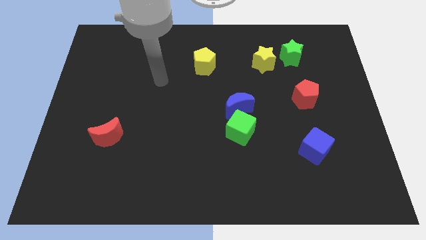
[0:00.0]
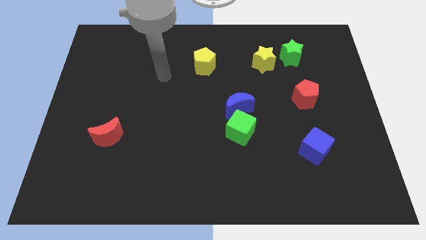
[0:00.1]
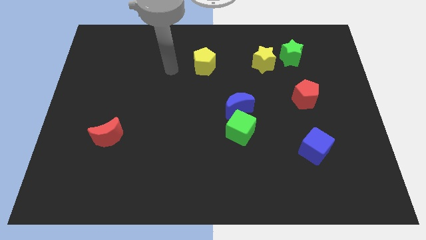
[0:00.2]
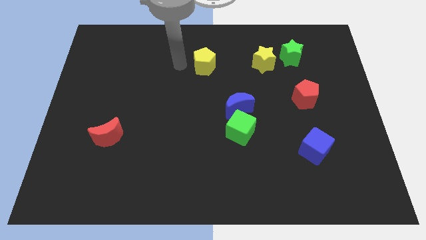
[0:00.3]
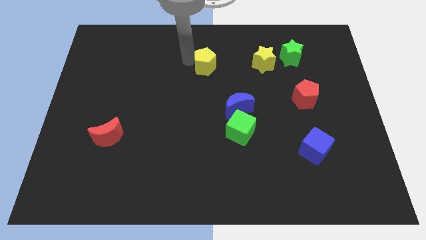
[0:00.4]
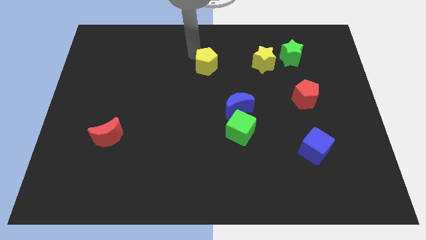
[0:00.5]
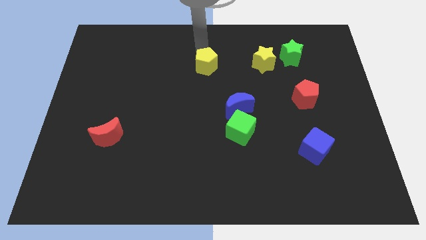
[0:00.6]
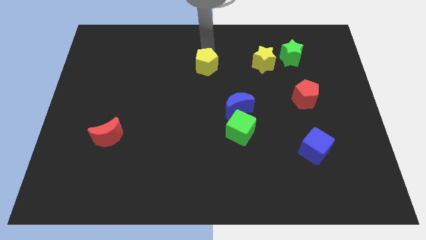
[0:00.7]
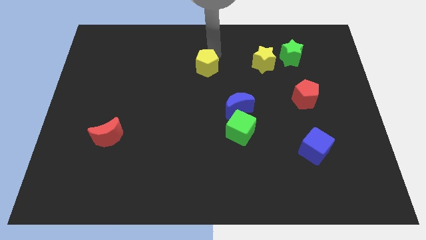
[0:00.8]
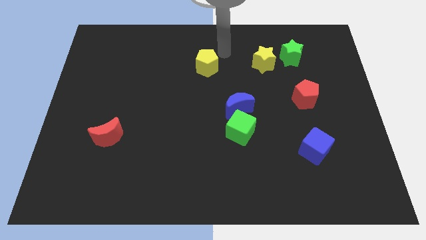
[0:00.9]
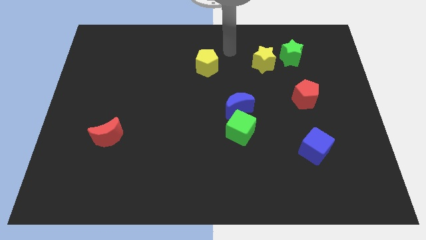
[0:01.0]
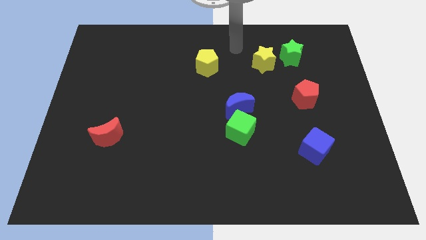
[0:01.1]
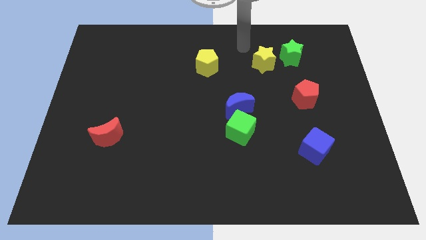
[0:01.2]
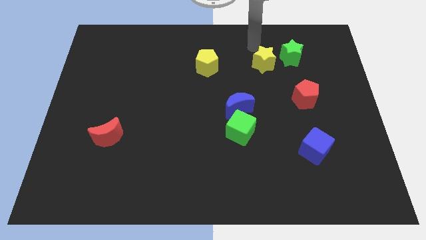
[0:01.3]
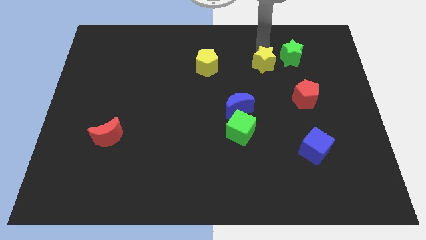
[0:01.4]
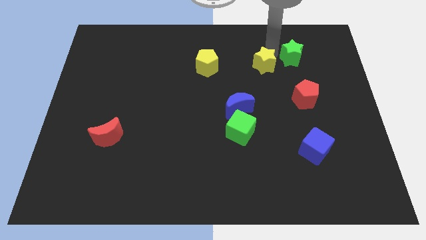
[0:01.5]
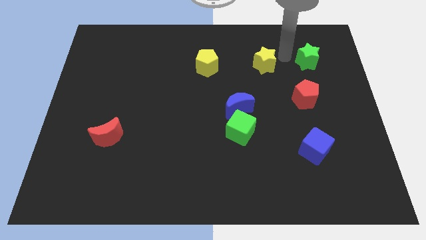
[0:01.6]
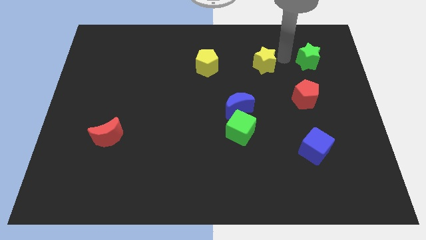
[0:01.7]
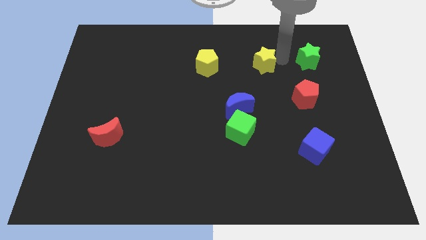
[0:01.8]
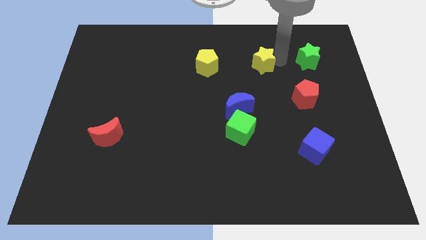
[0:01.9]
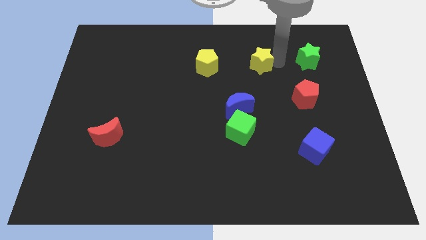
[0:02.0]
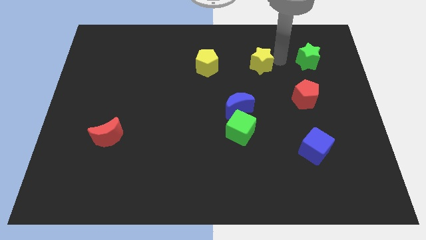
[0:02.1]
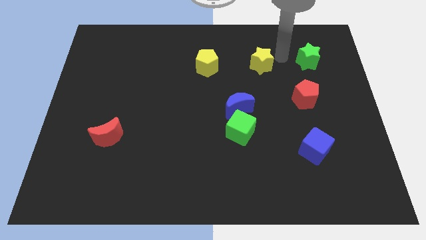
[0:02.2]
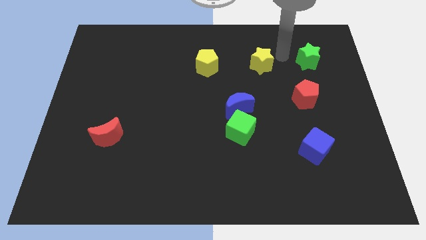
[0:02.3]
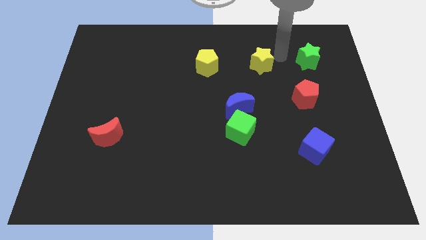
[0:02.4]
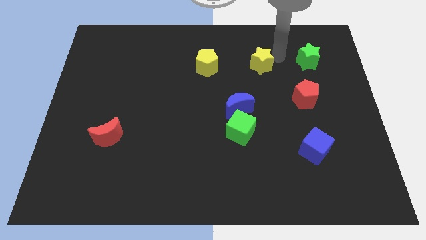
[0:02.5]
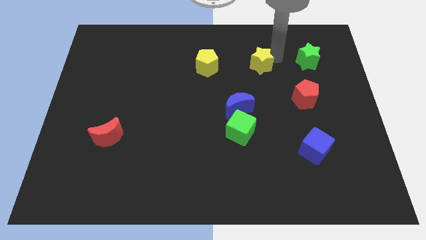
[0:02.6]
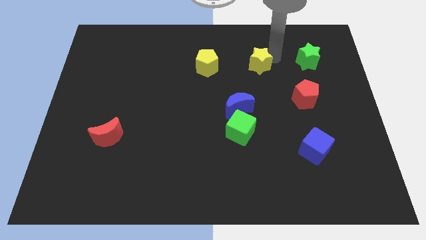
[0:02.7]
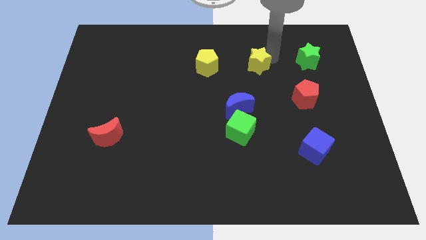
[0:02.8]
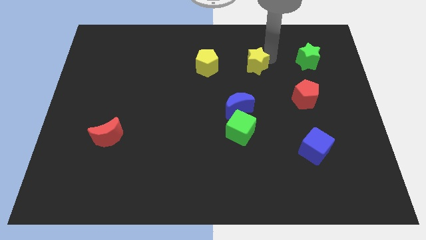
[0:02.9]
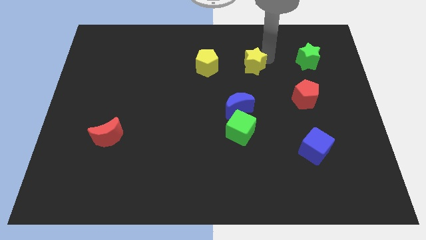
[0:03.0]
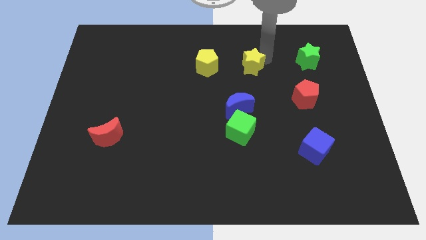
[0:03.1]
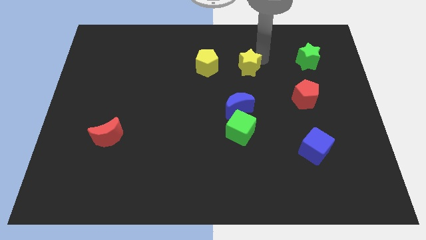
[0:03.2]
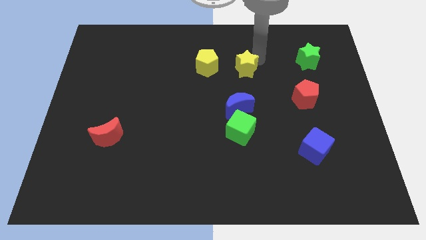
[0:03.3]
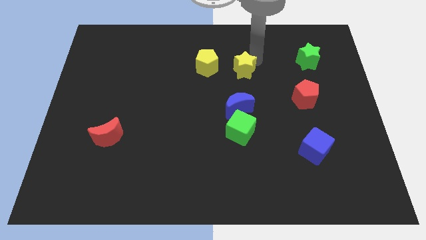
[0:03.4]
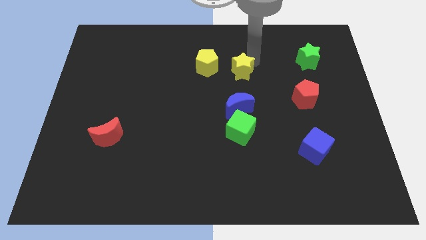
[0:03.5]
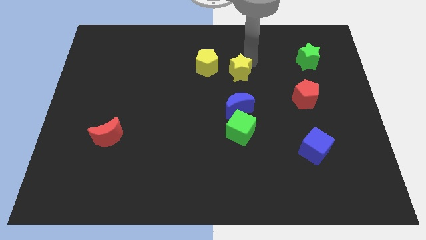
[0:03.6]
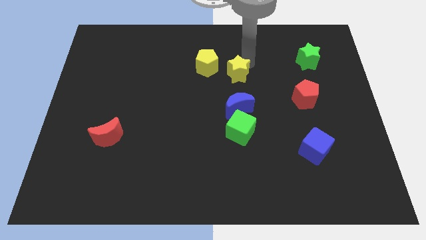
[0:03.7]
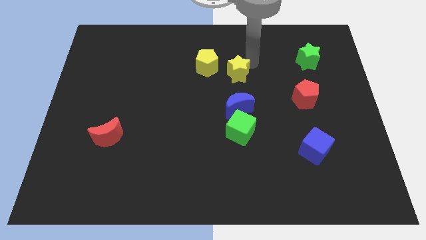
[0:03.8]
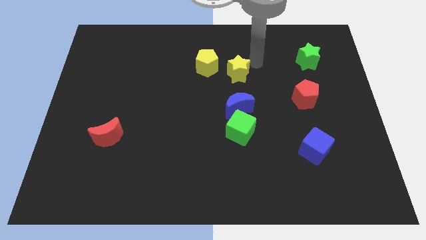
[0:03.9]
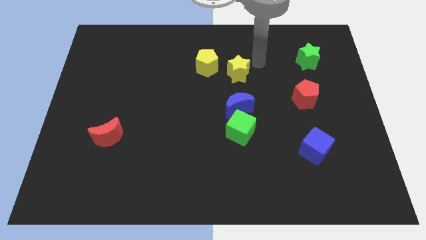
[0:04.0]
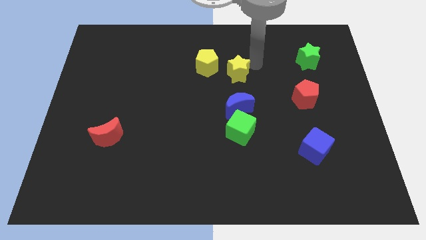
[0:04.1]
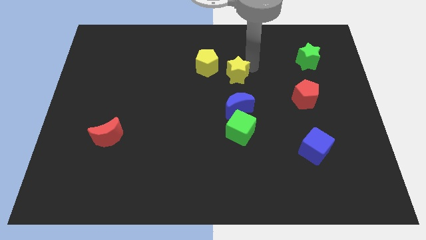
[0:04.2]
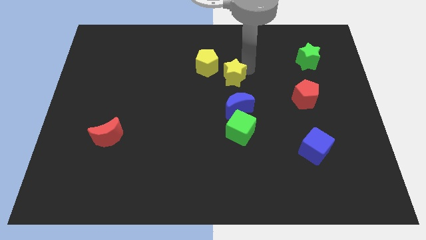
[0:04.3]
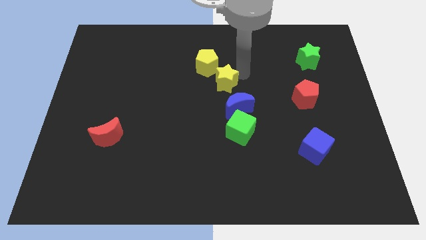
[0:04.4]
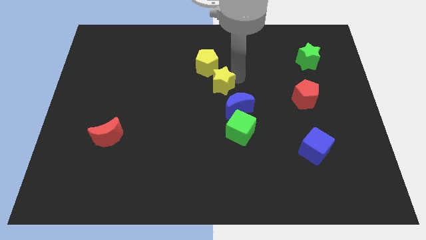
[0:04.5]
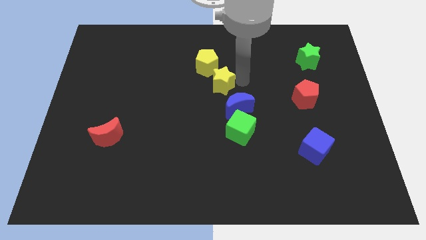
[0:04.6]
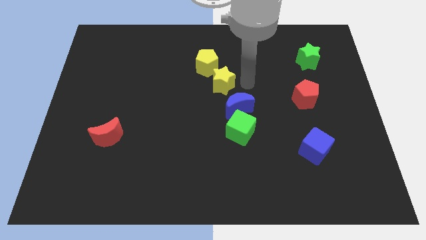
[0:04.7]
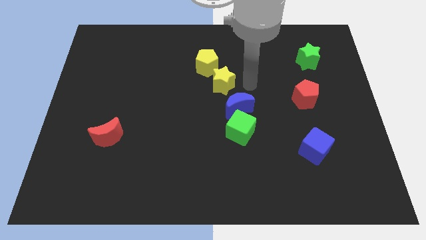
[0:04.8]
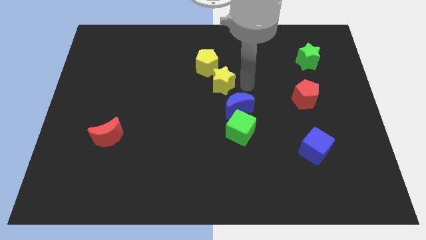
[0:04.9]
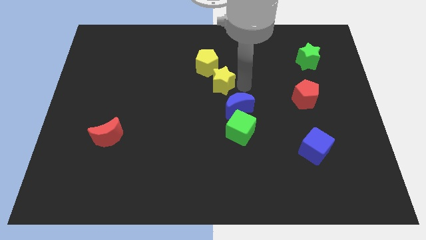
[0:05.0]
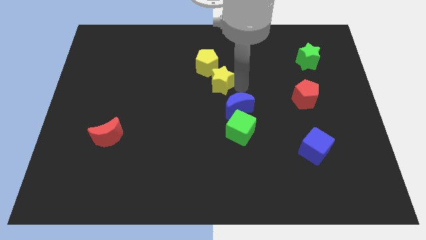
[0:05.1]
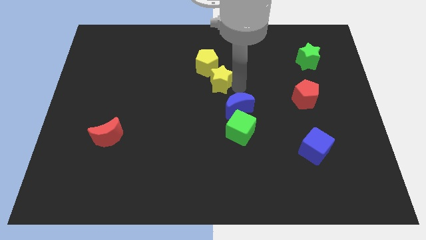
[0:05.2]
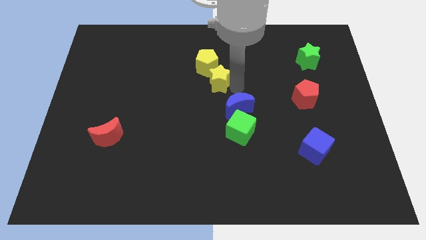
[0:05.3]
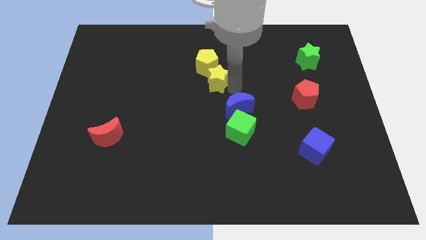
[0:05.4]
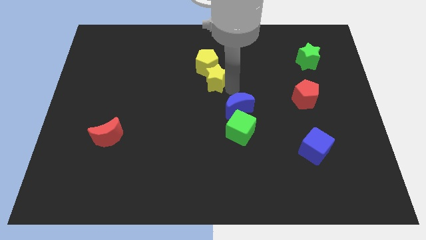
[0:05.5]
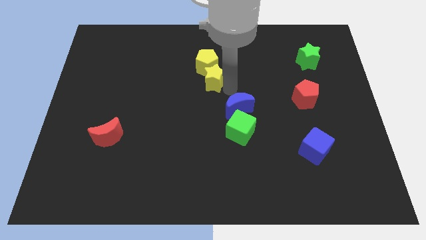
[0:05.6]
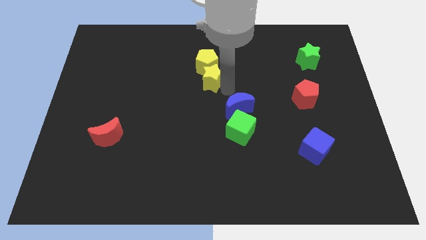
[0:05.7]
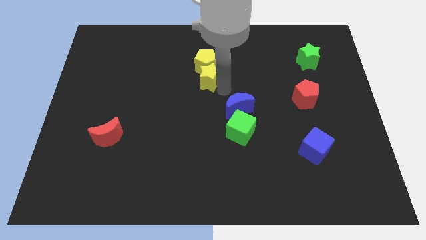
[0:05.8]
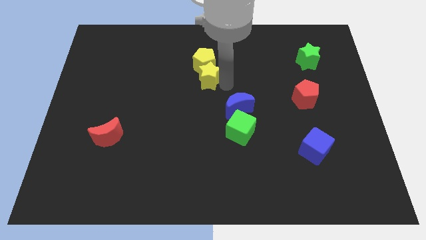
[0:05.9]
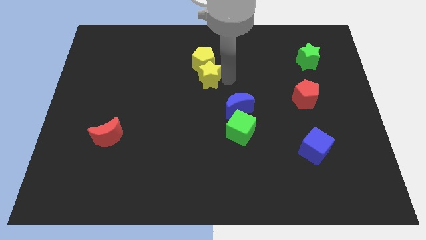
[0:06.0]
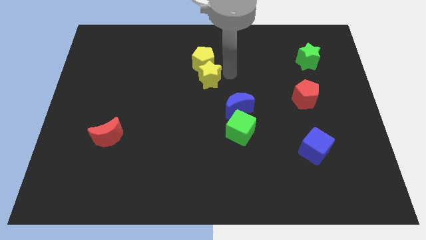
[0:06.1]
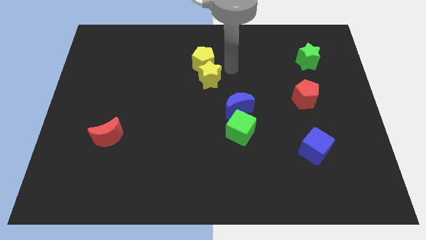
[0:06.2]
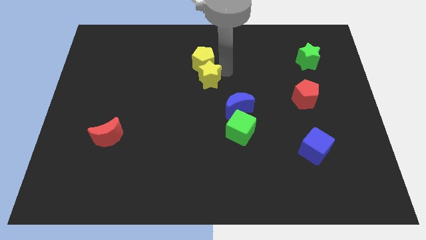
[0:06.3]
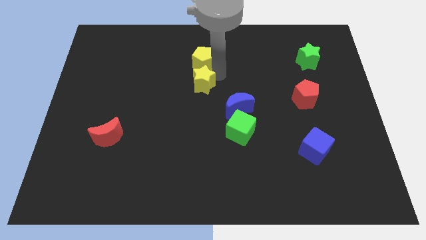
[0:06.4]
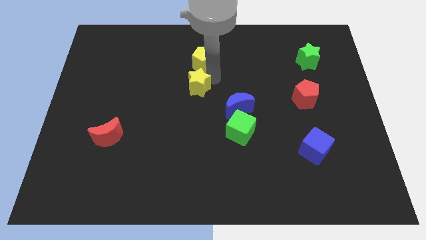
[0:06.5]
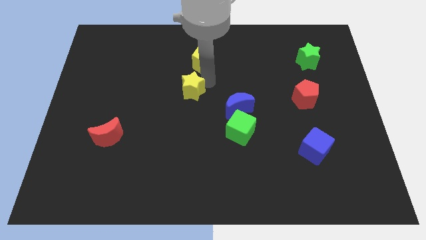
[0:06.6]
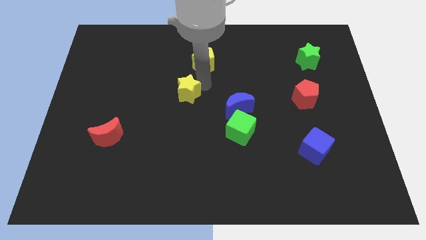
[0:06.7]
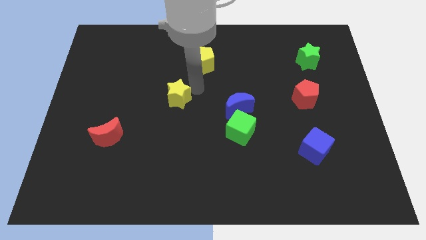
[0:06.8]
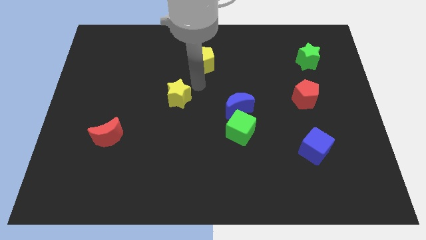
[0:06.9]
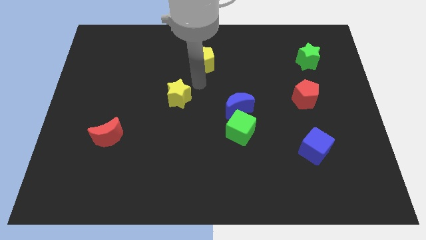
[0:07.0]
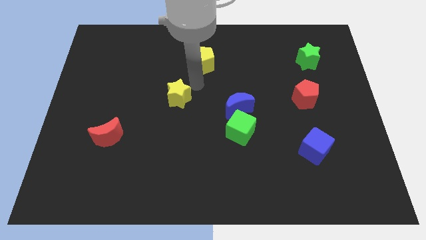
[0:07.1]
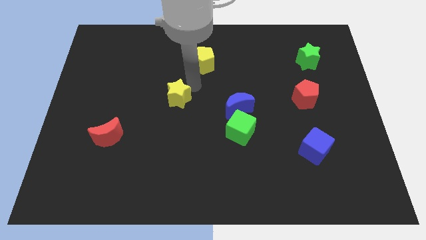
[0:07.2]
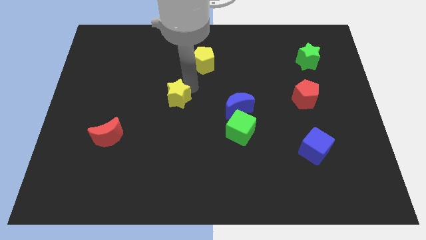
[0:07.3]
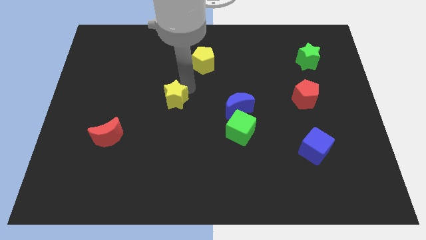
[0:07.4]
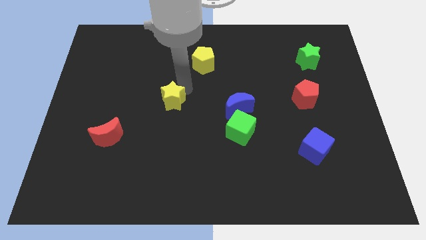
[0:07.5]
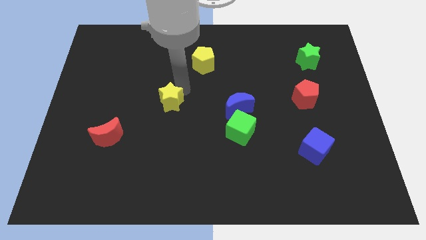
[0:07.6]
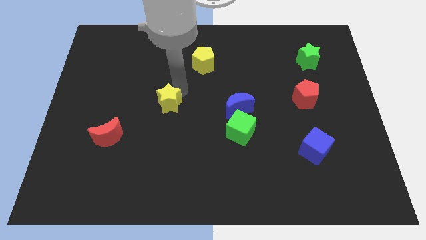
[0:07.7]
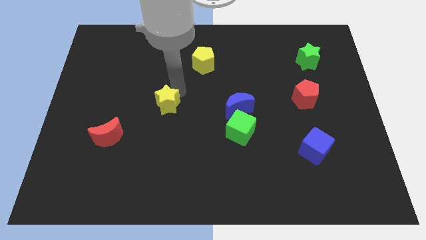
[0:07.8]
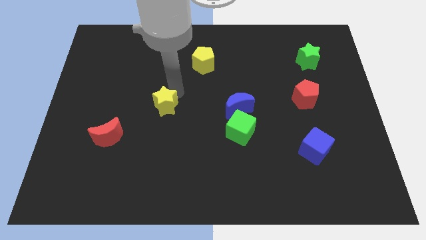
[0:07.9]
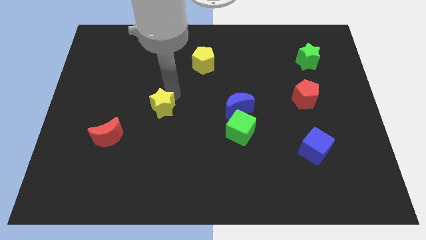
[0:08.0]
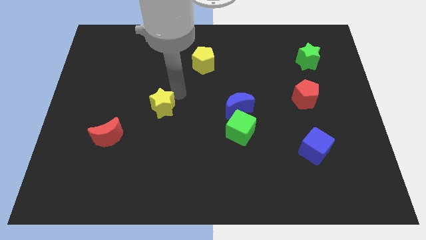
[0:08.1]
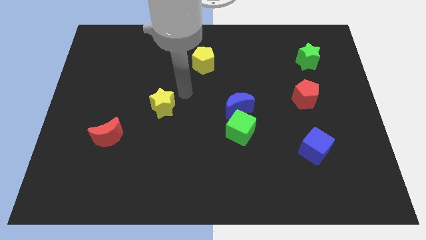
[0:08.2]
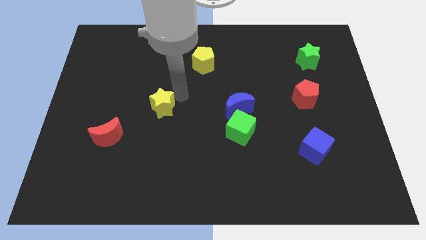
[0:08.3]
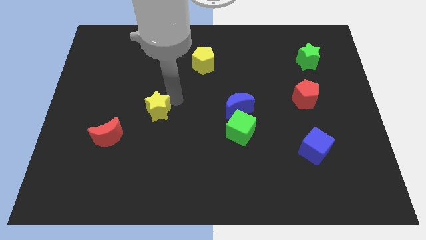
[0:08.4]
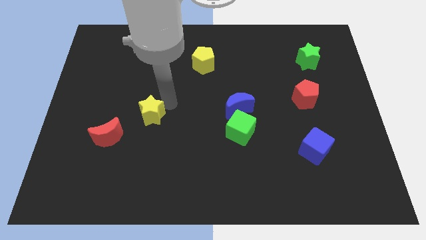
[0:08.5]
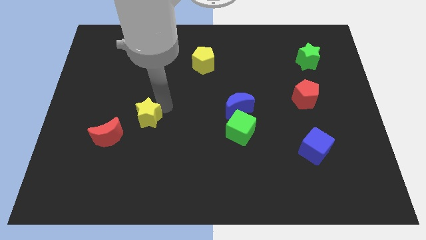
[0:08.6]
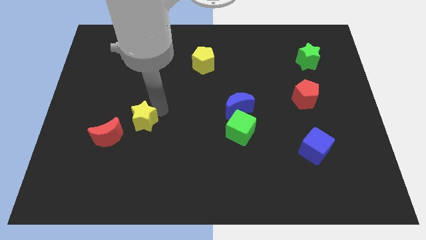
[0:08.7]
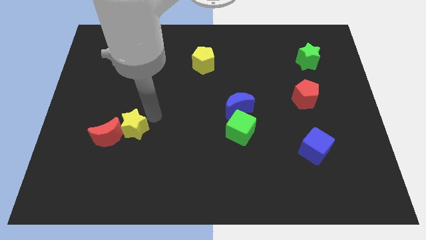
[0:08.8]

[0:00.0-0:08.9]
move the yellow star to the red moon
